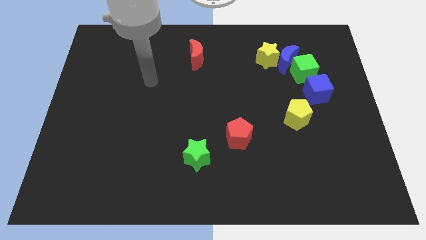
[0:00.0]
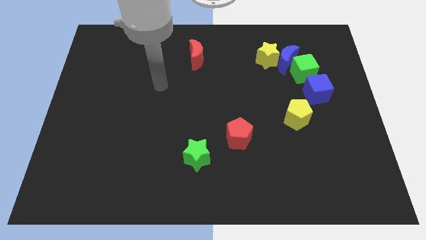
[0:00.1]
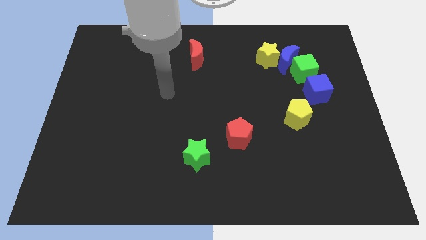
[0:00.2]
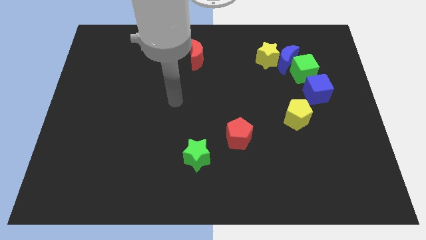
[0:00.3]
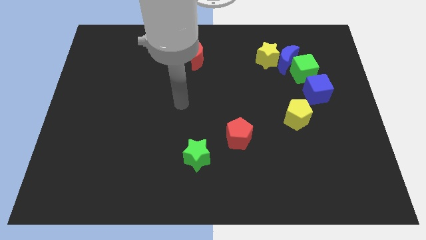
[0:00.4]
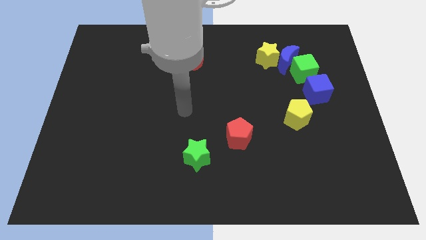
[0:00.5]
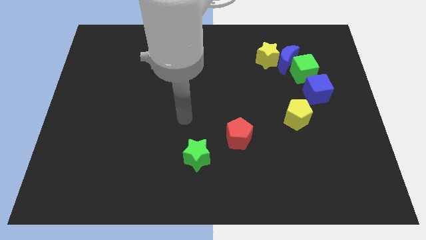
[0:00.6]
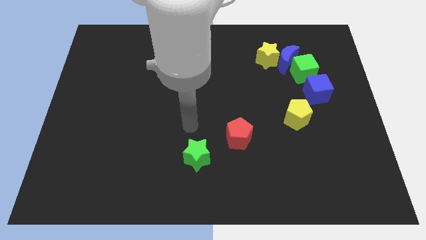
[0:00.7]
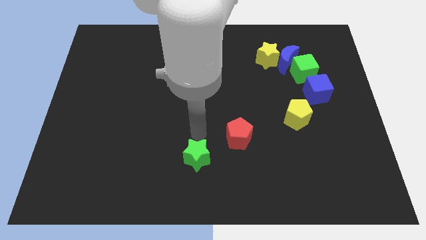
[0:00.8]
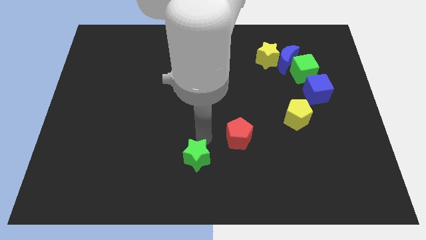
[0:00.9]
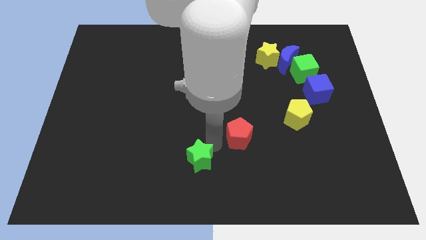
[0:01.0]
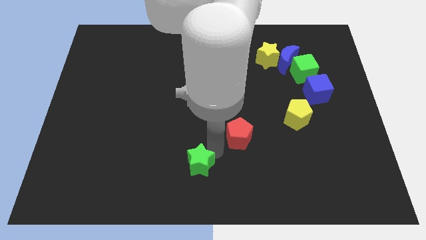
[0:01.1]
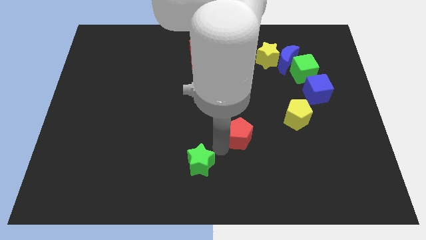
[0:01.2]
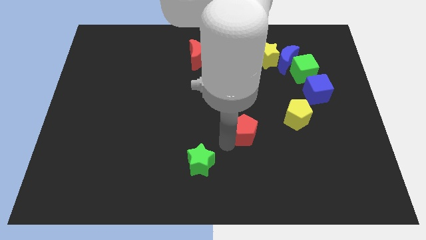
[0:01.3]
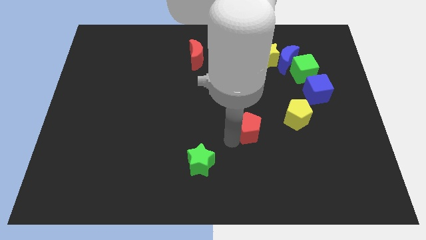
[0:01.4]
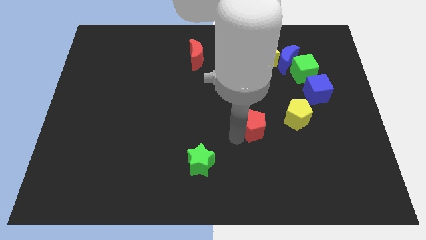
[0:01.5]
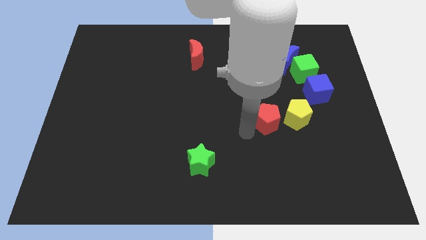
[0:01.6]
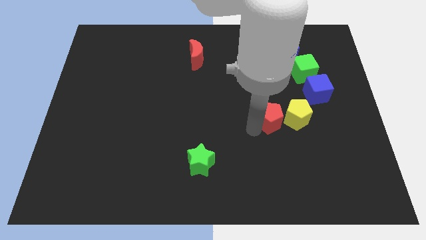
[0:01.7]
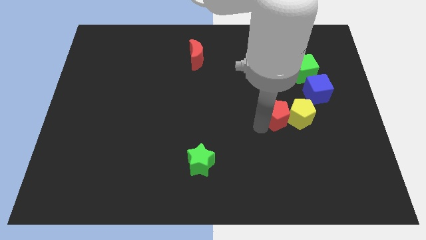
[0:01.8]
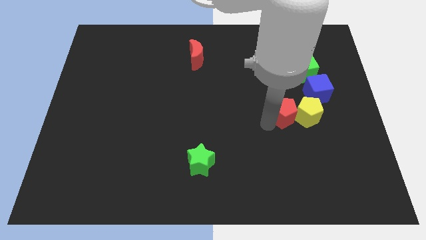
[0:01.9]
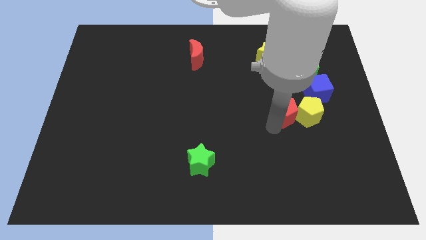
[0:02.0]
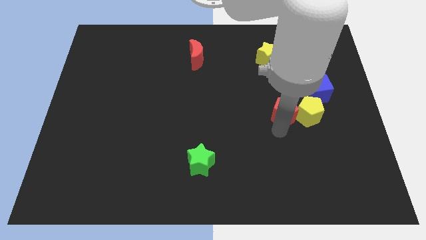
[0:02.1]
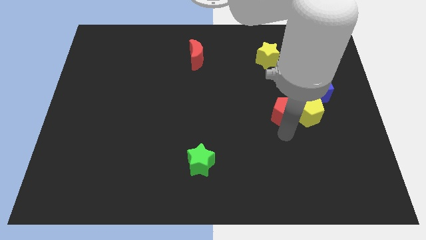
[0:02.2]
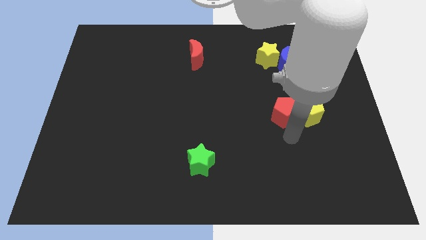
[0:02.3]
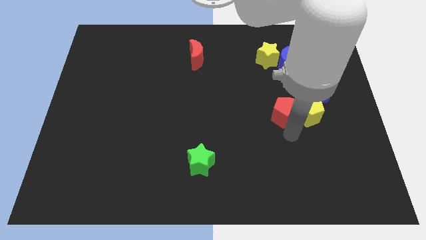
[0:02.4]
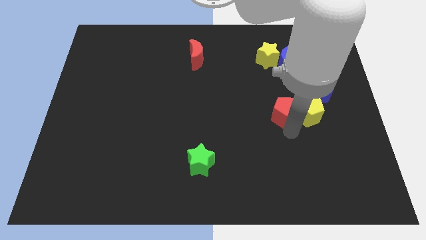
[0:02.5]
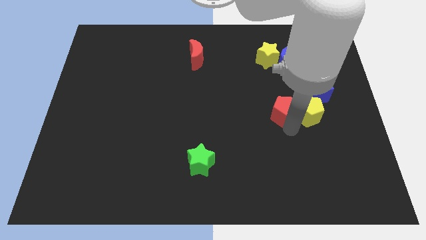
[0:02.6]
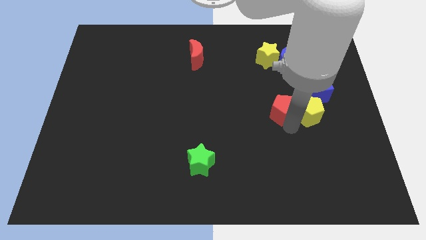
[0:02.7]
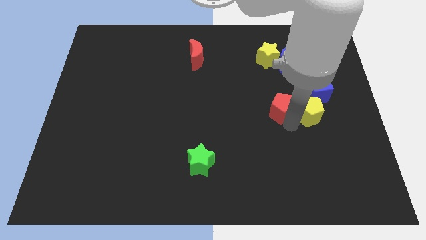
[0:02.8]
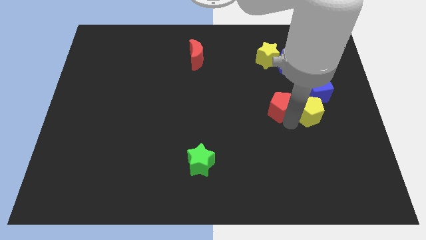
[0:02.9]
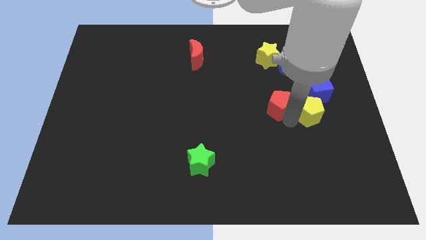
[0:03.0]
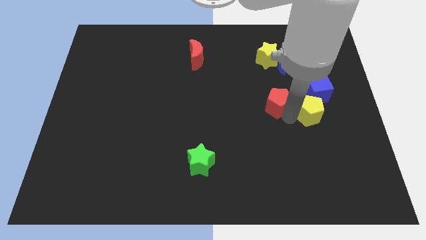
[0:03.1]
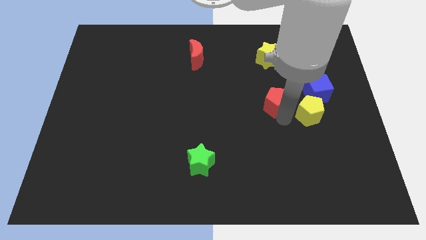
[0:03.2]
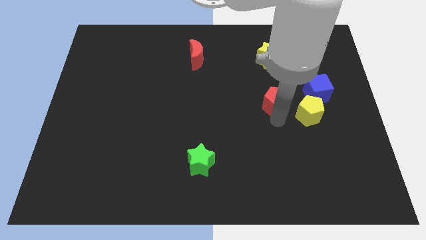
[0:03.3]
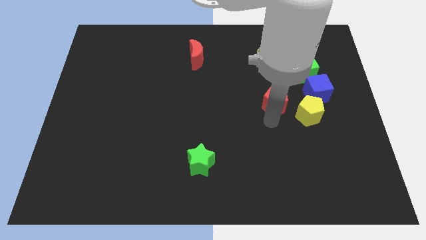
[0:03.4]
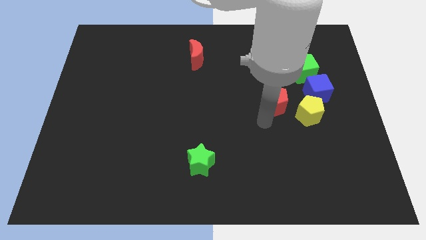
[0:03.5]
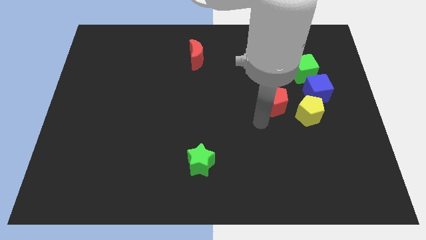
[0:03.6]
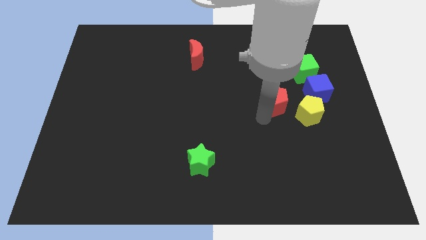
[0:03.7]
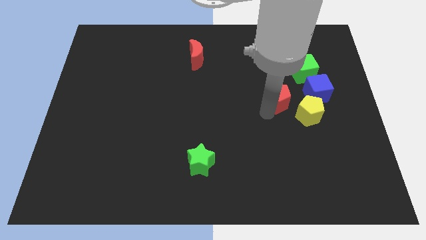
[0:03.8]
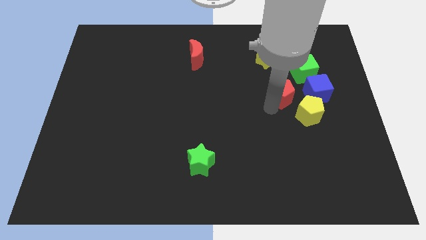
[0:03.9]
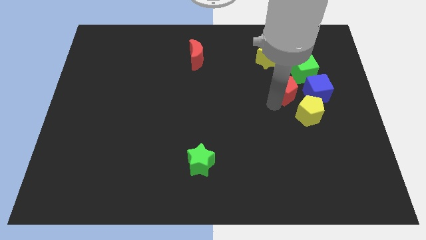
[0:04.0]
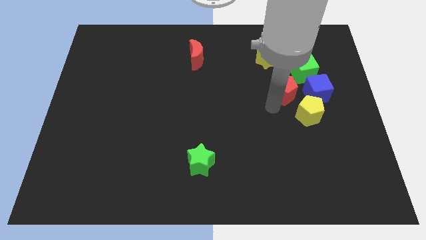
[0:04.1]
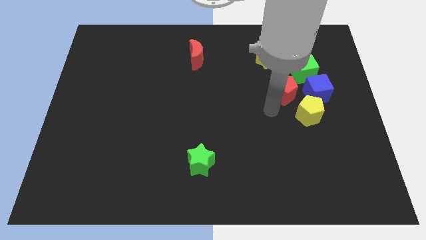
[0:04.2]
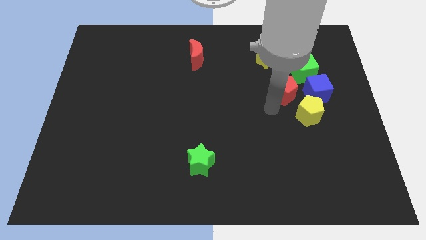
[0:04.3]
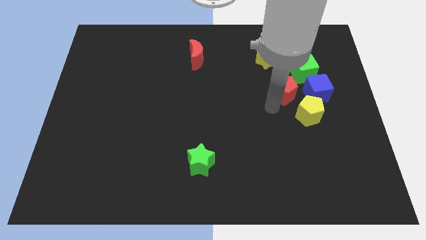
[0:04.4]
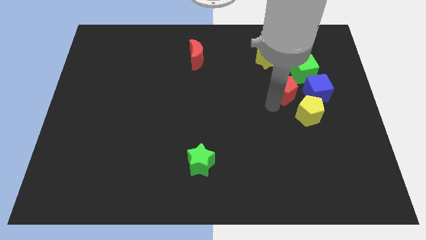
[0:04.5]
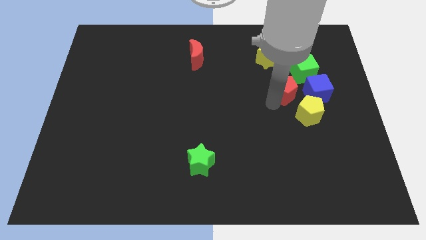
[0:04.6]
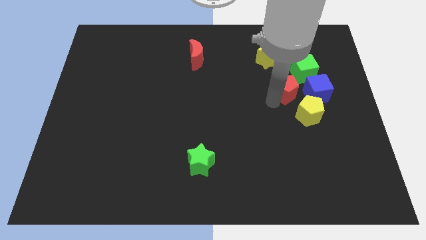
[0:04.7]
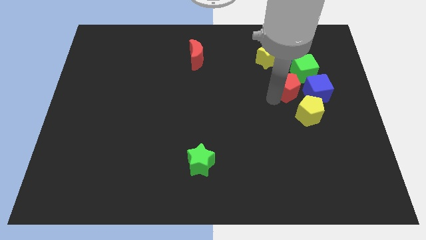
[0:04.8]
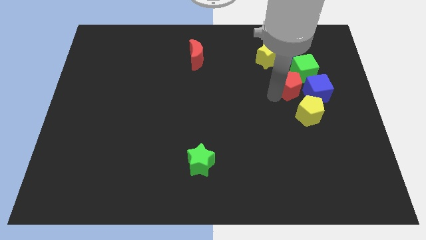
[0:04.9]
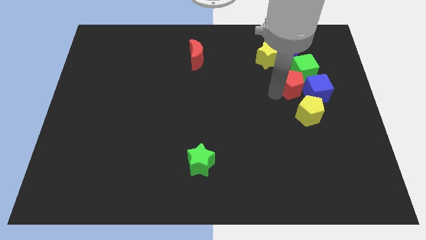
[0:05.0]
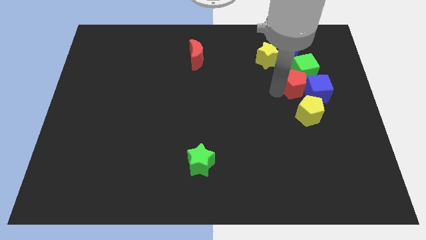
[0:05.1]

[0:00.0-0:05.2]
slide the red pentagon close to the green cube

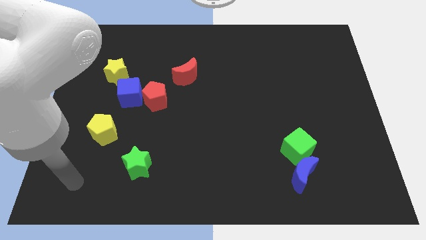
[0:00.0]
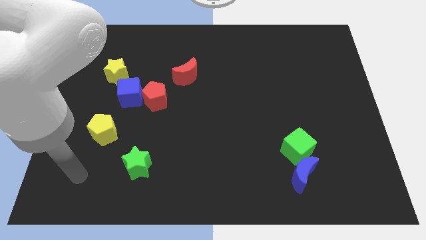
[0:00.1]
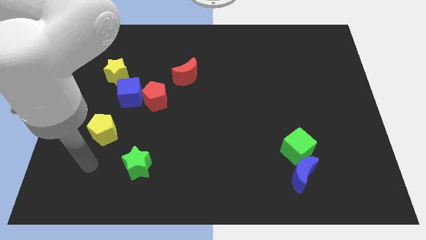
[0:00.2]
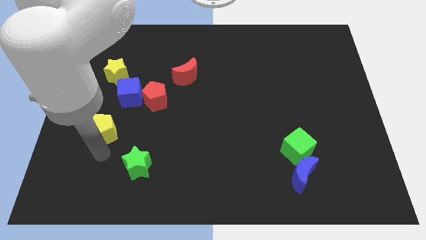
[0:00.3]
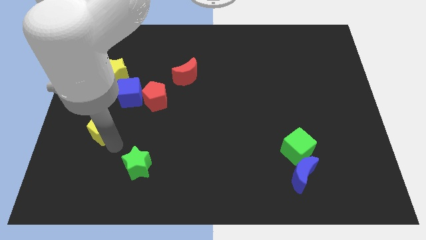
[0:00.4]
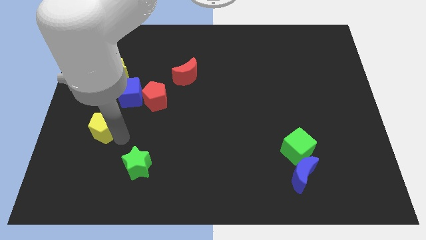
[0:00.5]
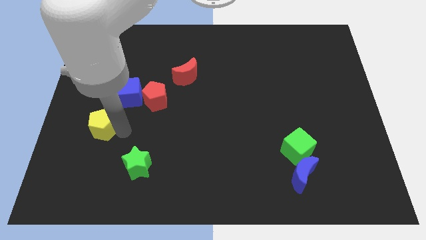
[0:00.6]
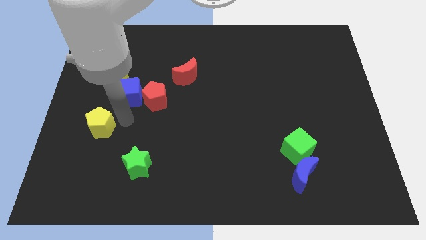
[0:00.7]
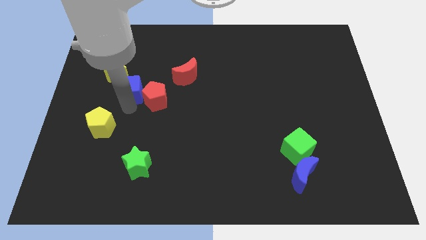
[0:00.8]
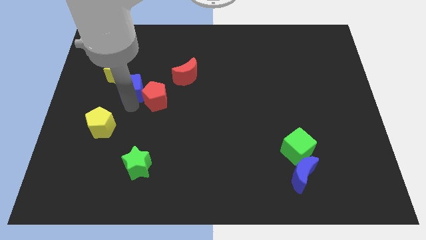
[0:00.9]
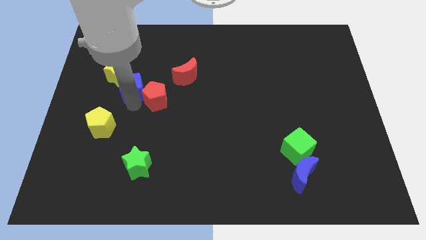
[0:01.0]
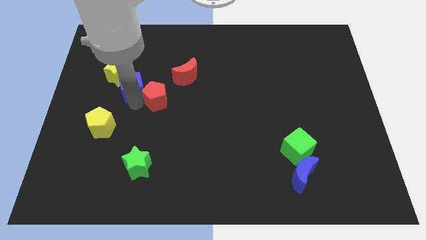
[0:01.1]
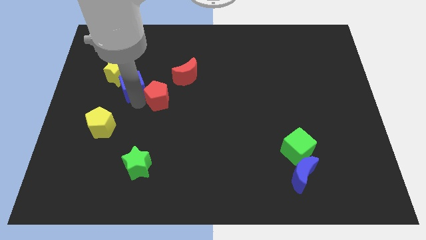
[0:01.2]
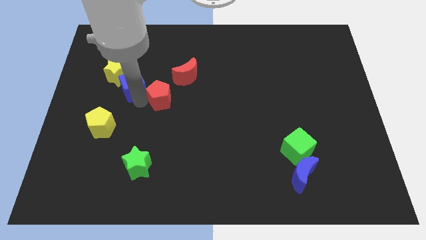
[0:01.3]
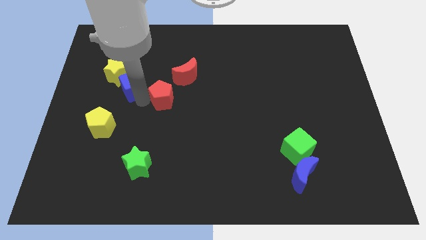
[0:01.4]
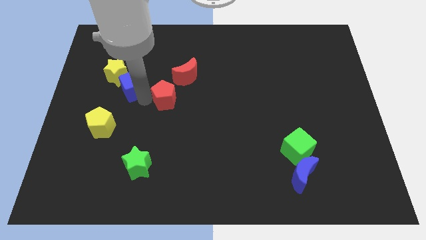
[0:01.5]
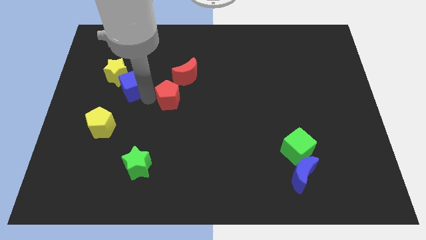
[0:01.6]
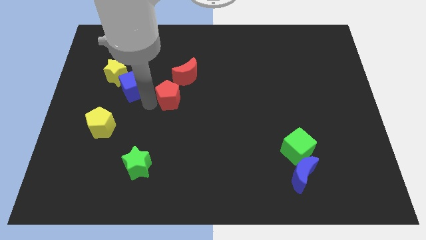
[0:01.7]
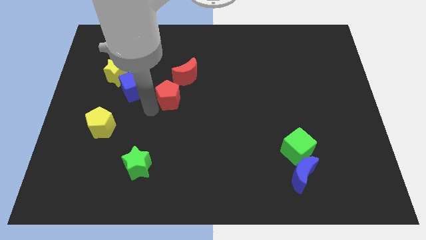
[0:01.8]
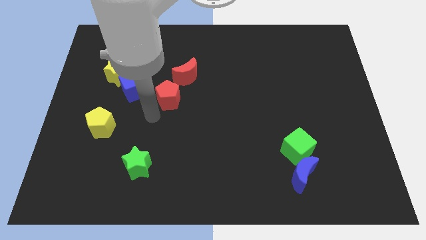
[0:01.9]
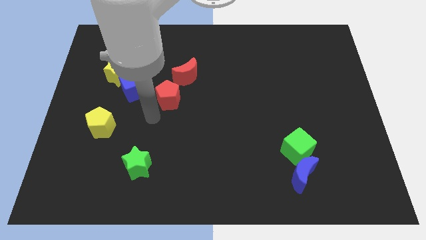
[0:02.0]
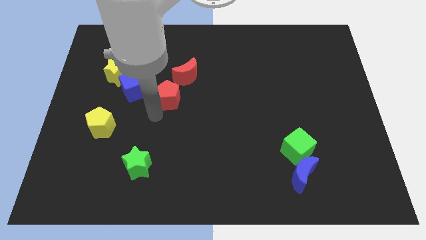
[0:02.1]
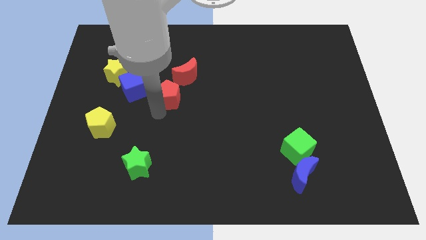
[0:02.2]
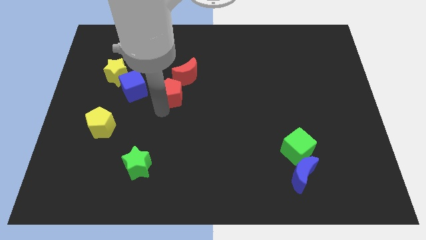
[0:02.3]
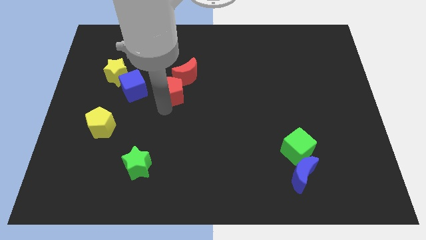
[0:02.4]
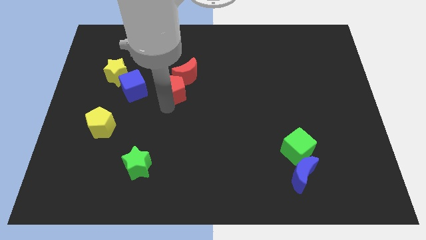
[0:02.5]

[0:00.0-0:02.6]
put the red pentagon to the red moon
